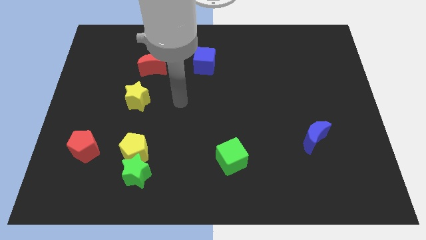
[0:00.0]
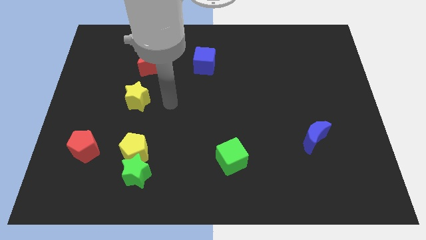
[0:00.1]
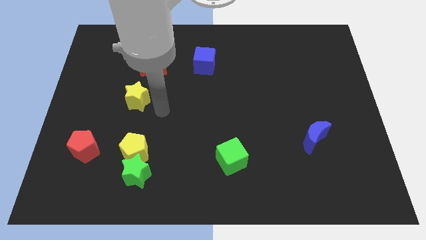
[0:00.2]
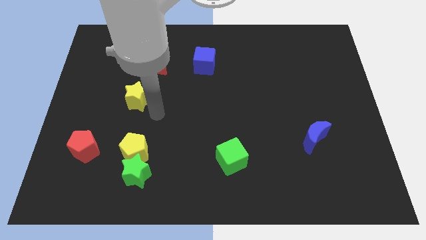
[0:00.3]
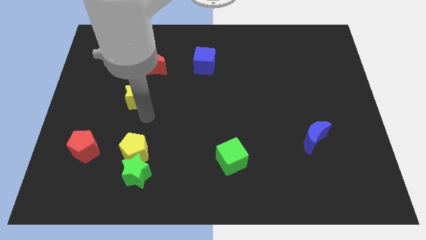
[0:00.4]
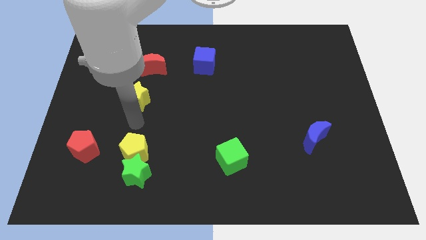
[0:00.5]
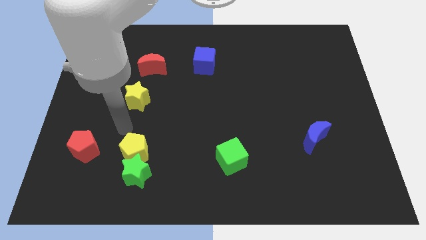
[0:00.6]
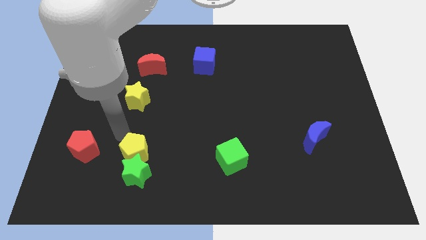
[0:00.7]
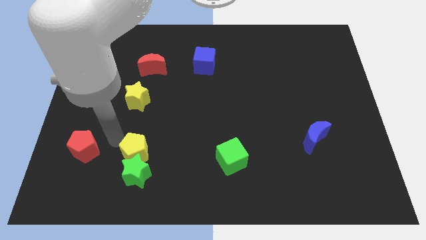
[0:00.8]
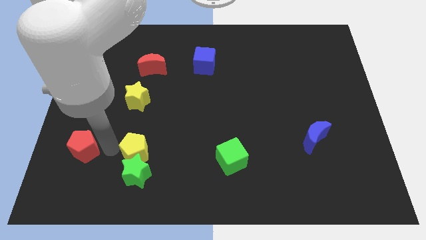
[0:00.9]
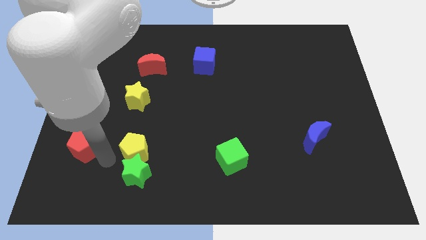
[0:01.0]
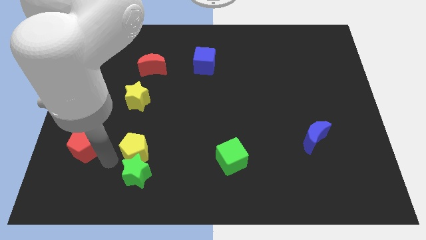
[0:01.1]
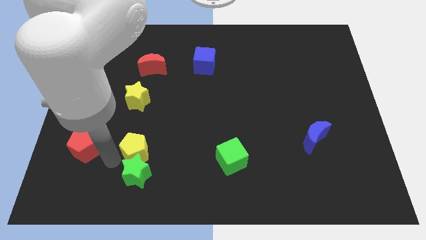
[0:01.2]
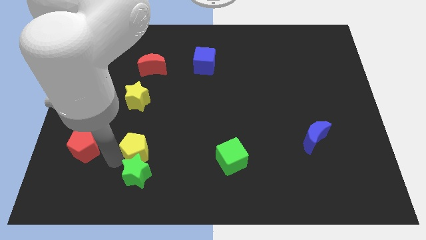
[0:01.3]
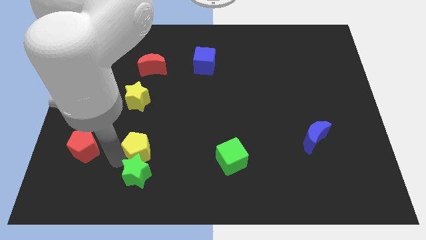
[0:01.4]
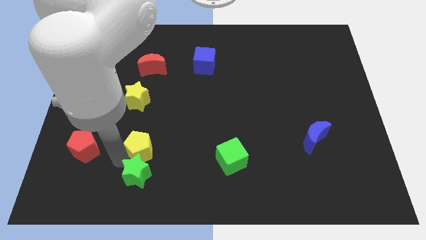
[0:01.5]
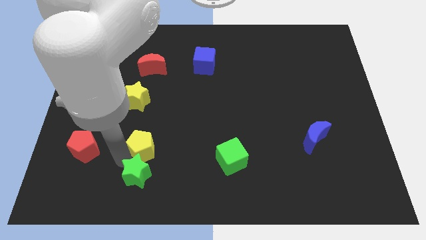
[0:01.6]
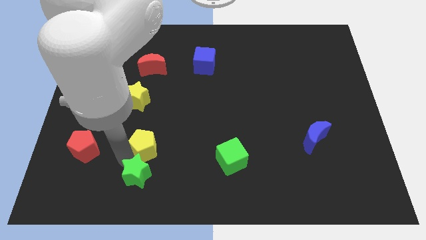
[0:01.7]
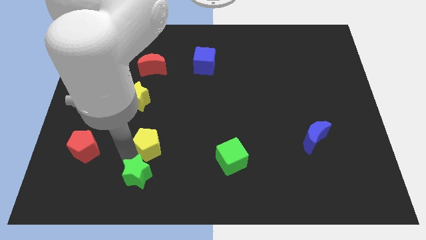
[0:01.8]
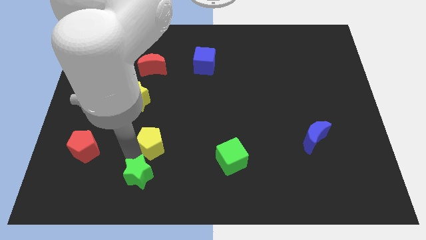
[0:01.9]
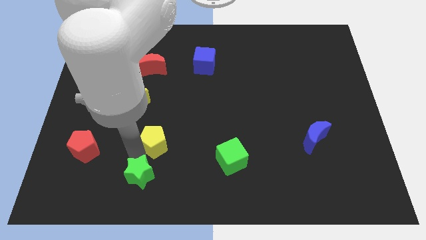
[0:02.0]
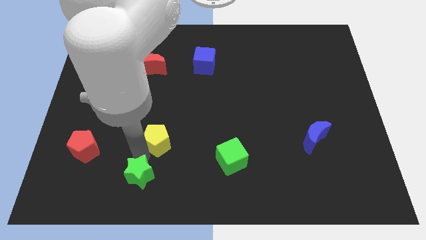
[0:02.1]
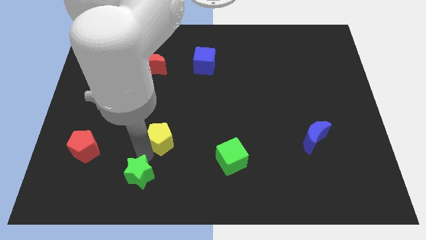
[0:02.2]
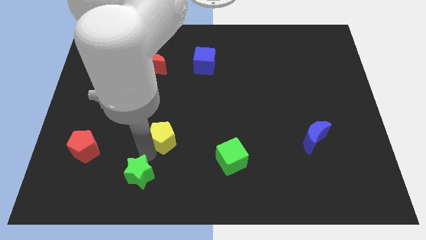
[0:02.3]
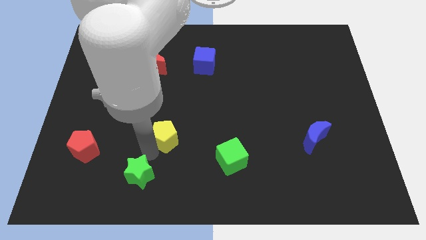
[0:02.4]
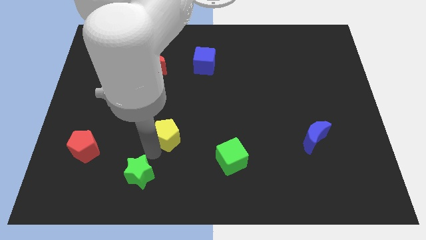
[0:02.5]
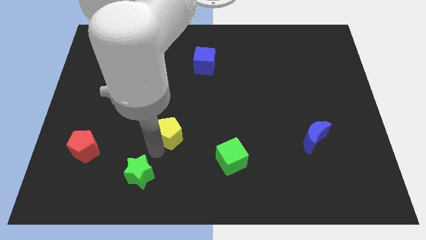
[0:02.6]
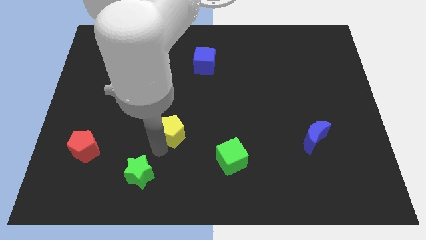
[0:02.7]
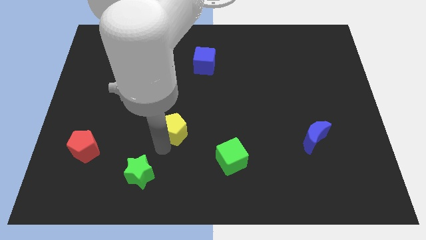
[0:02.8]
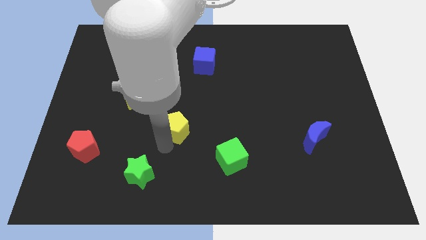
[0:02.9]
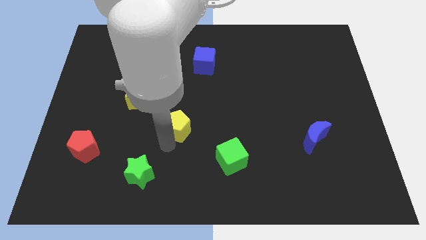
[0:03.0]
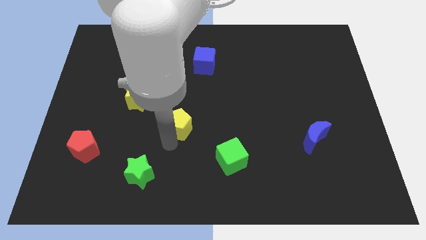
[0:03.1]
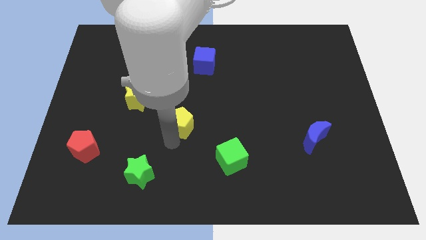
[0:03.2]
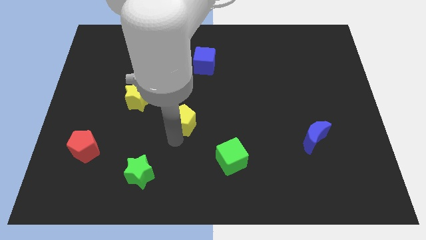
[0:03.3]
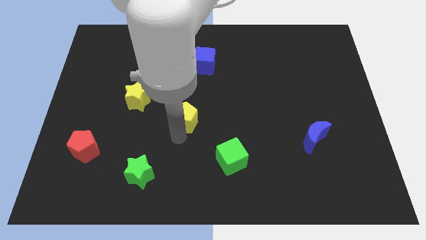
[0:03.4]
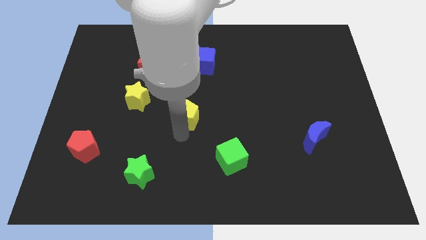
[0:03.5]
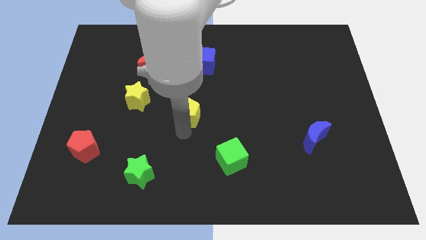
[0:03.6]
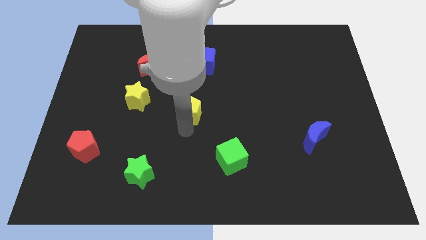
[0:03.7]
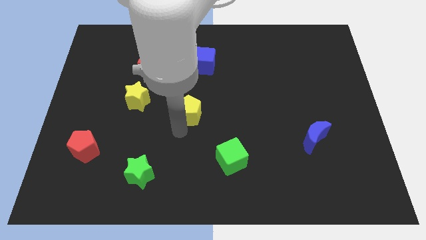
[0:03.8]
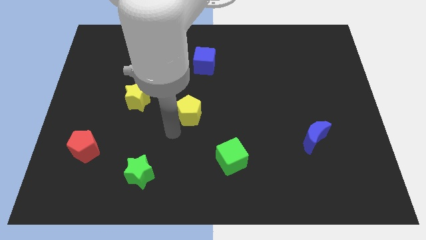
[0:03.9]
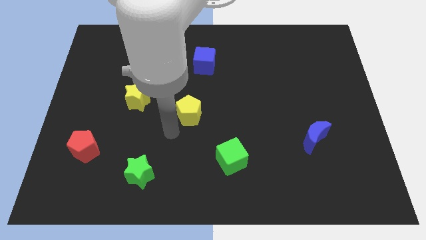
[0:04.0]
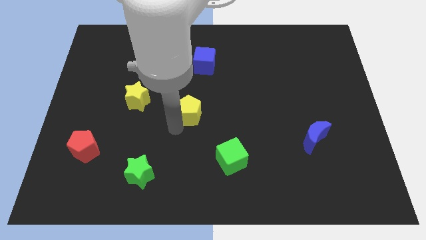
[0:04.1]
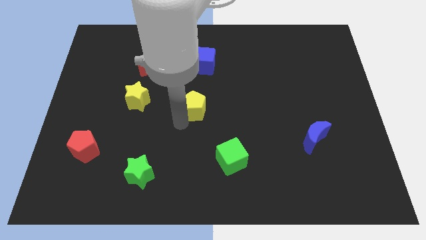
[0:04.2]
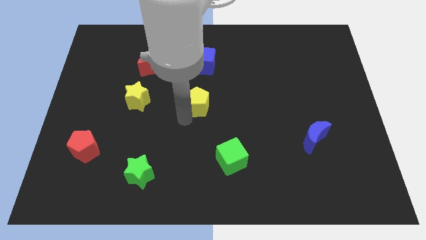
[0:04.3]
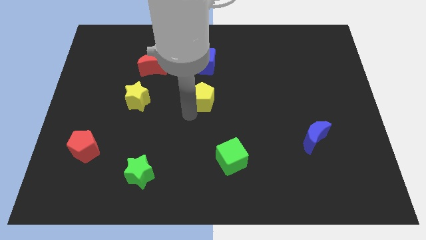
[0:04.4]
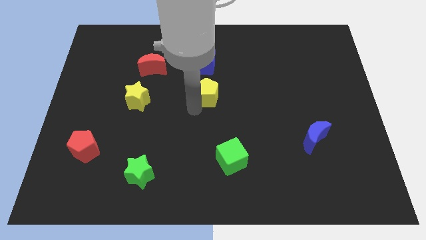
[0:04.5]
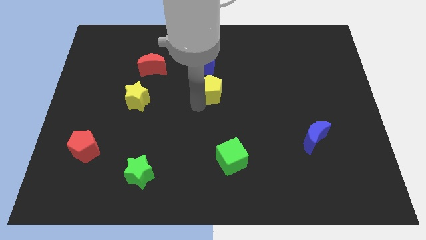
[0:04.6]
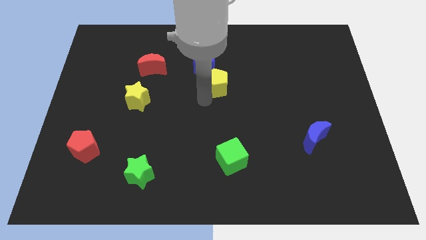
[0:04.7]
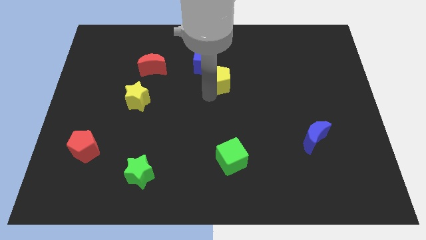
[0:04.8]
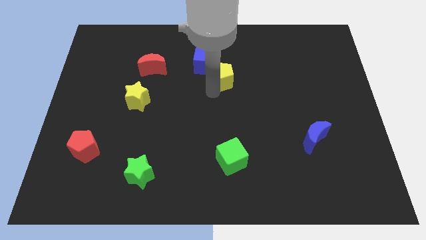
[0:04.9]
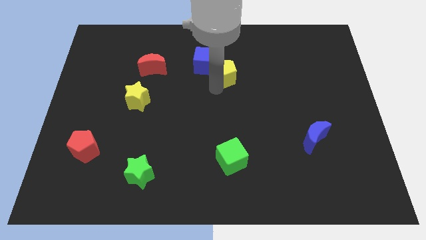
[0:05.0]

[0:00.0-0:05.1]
move the yellow pentagon to the right of the blue cube

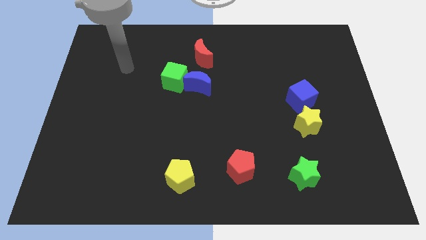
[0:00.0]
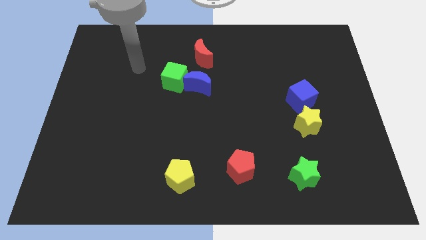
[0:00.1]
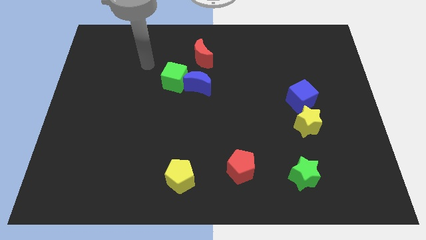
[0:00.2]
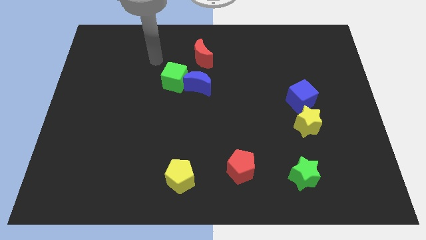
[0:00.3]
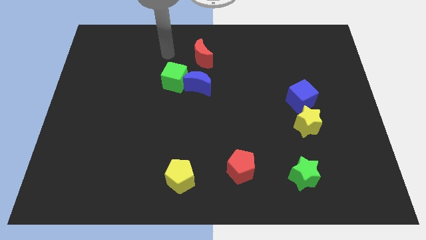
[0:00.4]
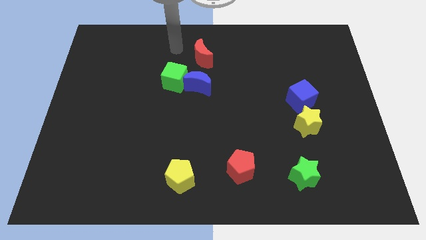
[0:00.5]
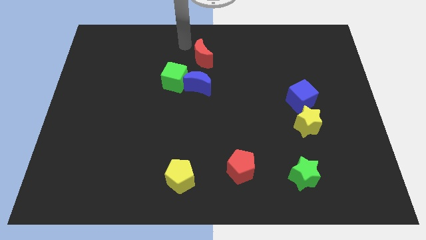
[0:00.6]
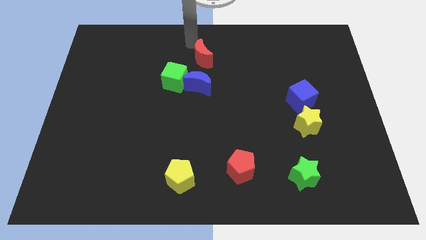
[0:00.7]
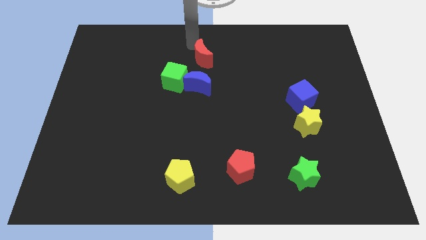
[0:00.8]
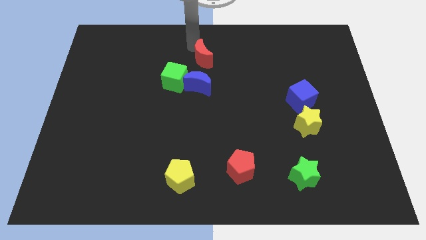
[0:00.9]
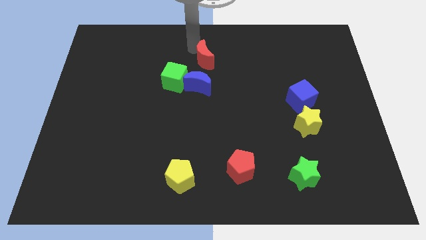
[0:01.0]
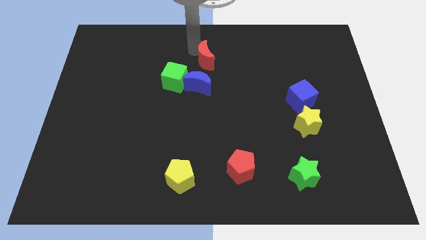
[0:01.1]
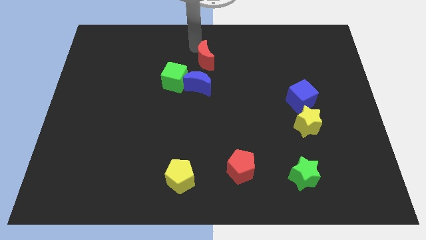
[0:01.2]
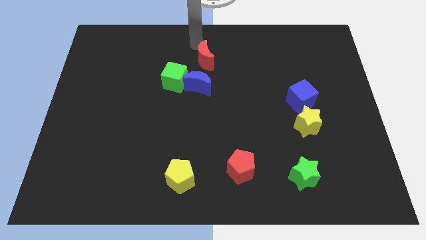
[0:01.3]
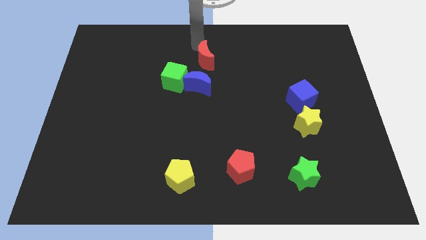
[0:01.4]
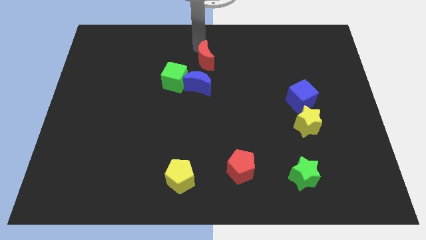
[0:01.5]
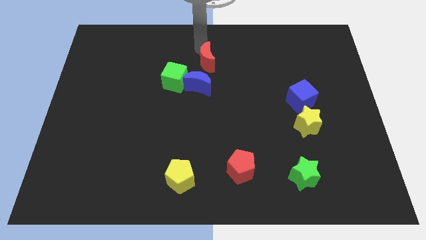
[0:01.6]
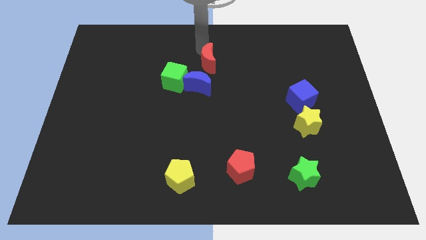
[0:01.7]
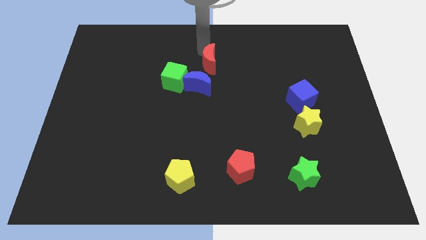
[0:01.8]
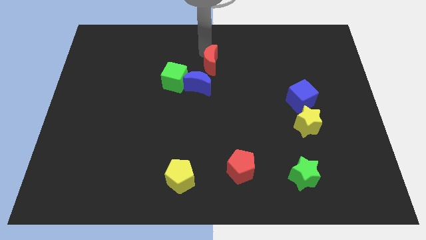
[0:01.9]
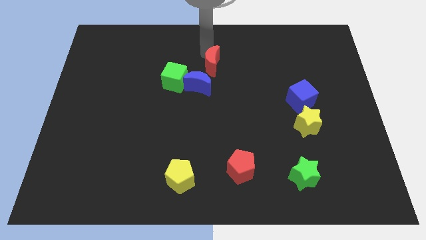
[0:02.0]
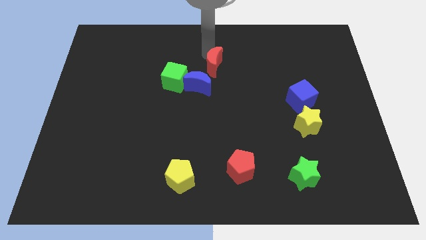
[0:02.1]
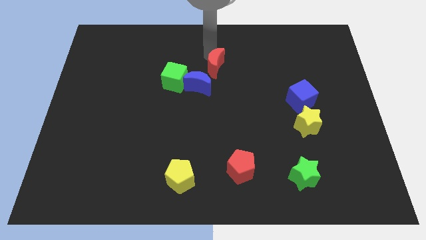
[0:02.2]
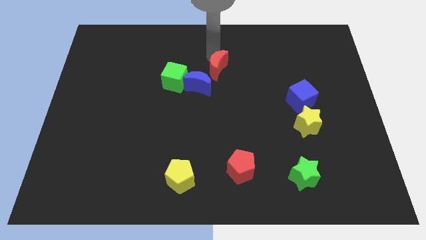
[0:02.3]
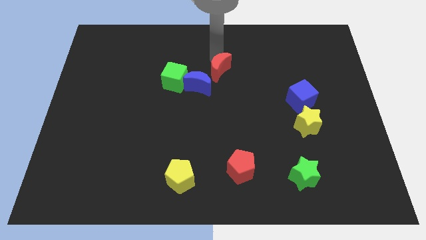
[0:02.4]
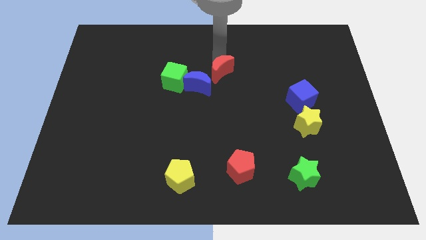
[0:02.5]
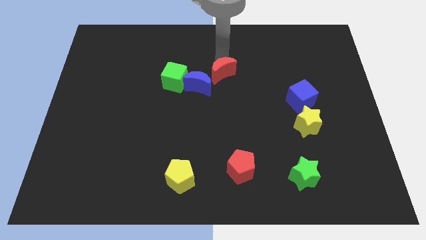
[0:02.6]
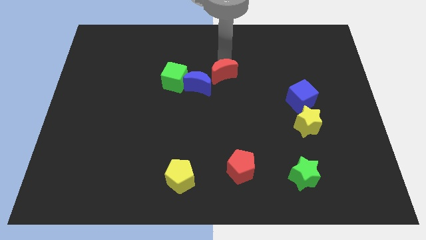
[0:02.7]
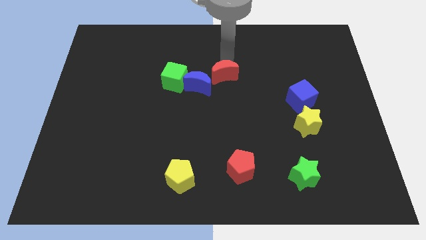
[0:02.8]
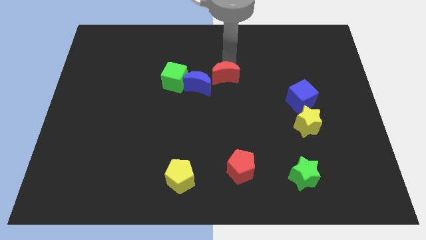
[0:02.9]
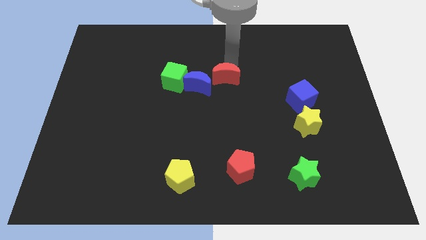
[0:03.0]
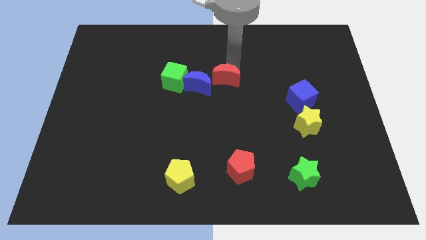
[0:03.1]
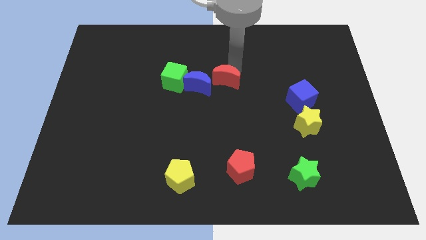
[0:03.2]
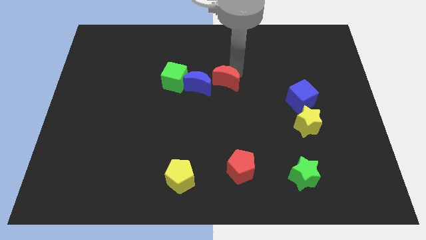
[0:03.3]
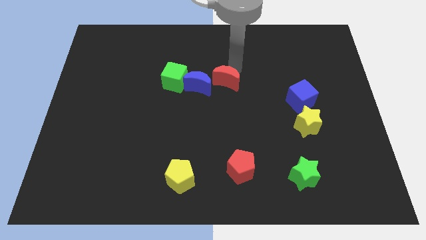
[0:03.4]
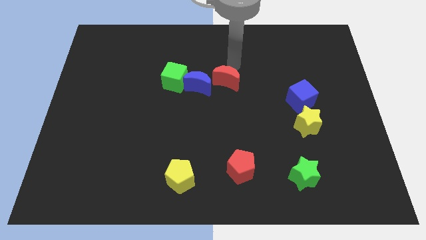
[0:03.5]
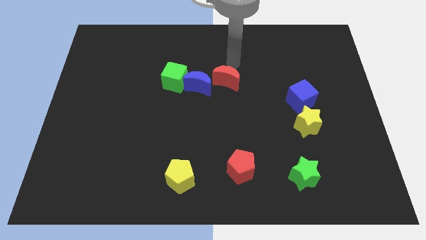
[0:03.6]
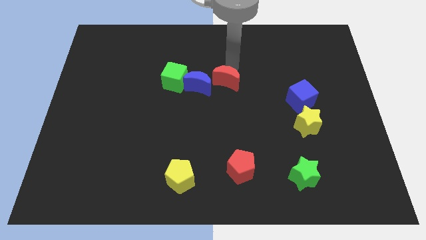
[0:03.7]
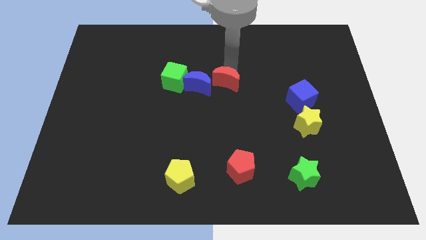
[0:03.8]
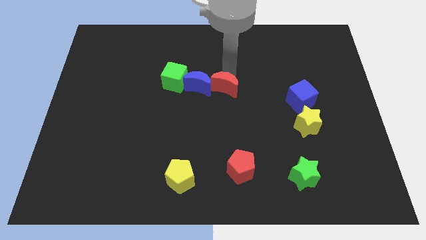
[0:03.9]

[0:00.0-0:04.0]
push the red moon to the bottom right side of the blue moon
